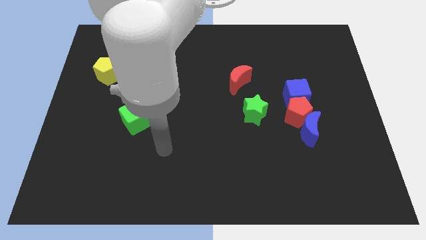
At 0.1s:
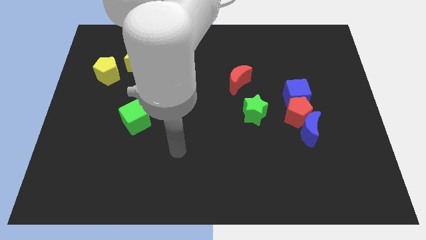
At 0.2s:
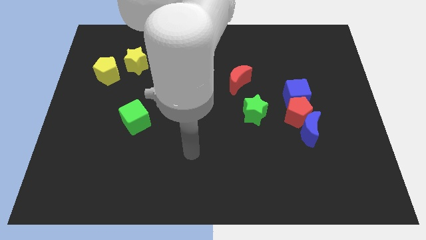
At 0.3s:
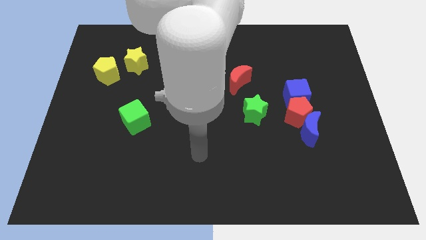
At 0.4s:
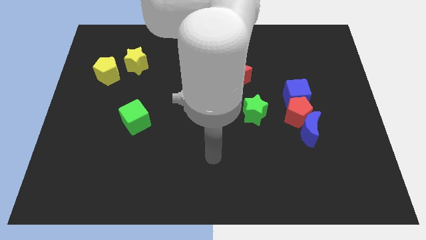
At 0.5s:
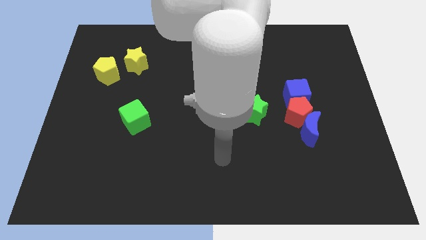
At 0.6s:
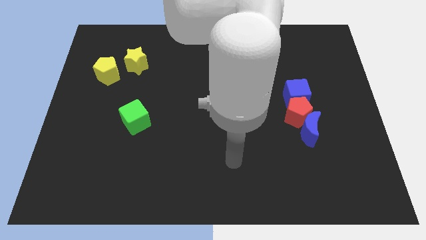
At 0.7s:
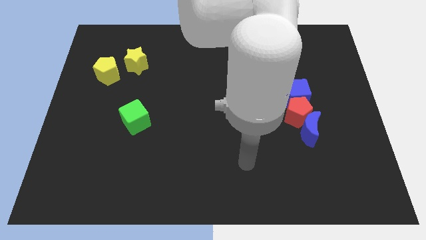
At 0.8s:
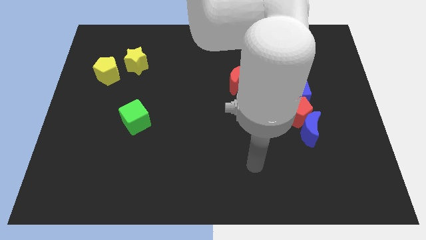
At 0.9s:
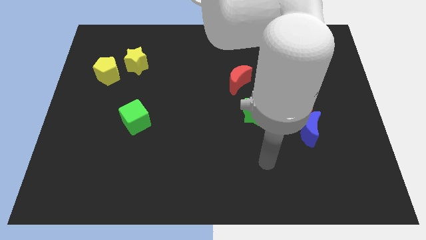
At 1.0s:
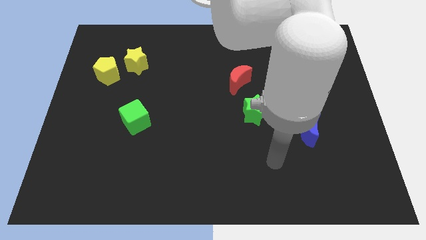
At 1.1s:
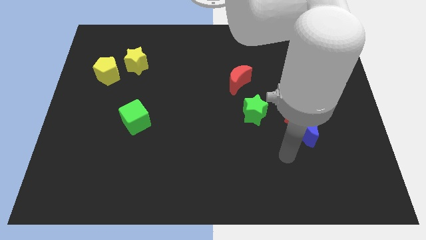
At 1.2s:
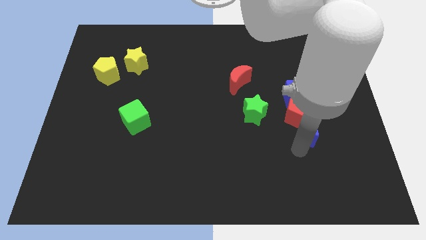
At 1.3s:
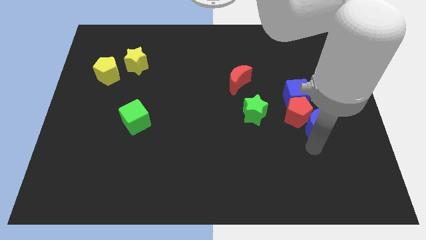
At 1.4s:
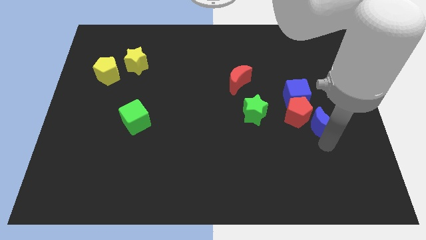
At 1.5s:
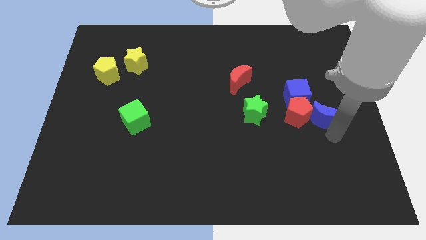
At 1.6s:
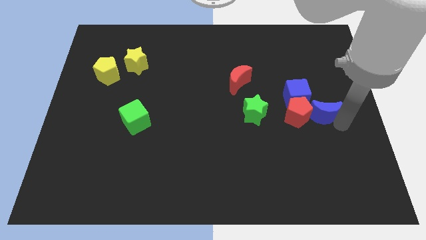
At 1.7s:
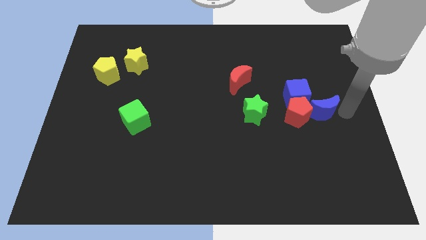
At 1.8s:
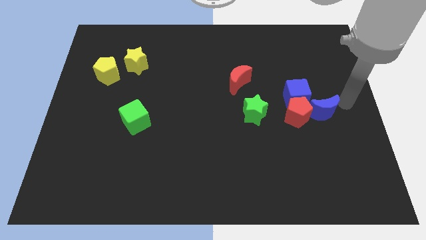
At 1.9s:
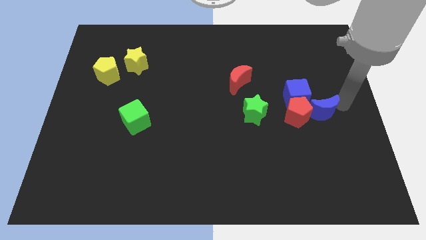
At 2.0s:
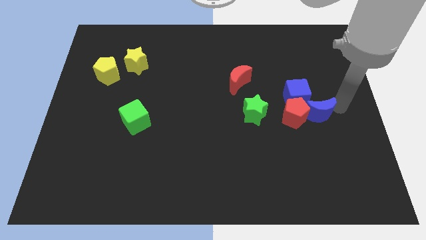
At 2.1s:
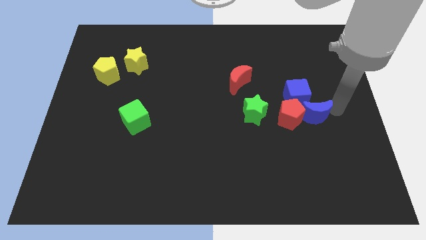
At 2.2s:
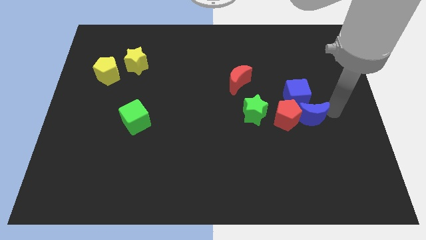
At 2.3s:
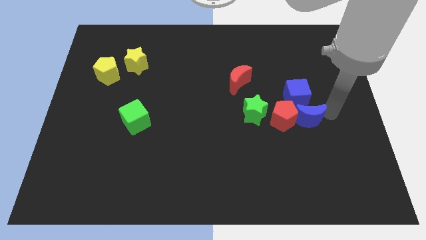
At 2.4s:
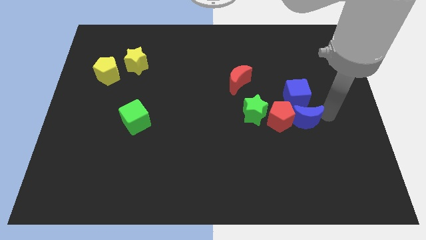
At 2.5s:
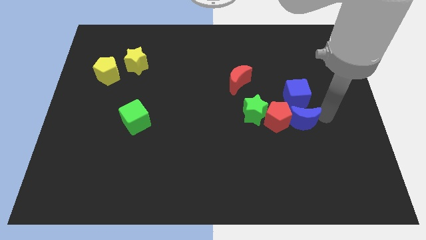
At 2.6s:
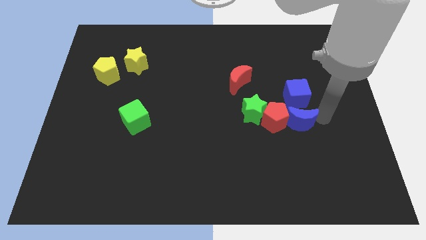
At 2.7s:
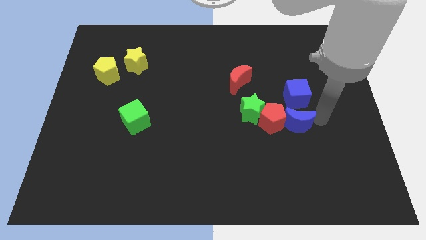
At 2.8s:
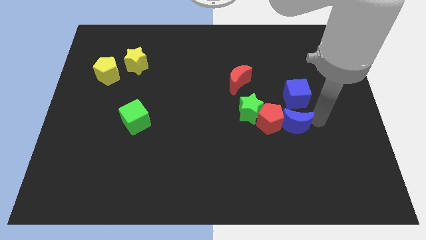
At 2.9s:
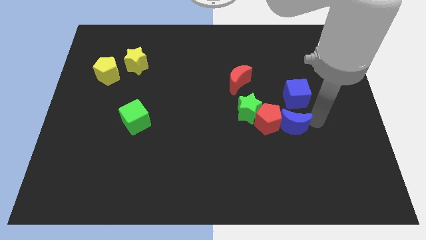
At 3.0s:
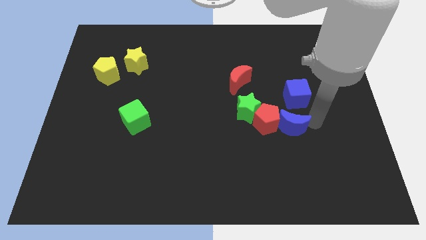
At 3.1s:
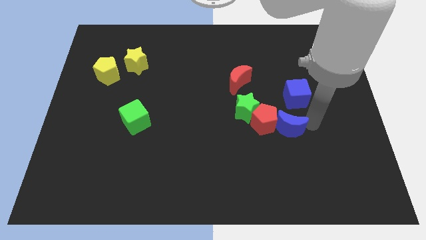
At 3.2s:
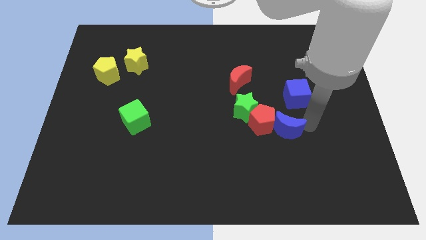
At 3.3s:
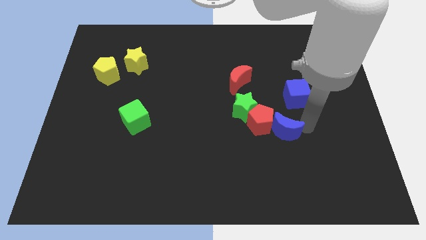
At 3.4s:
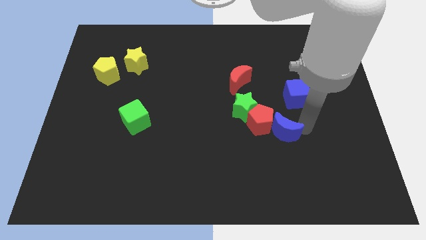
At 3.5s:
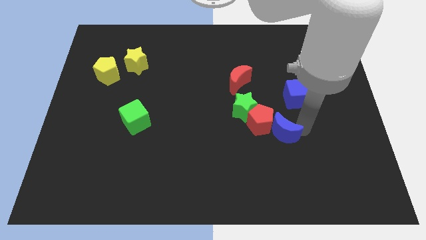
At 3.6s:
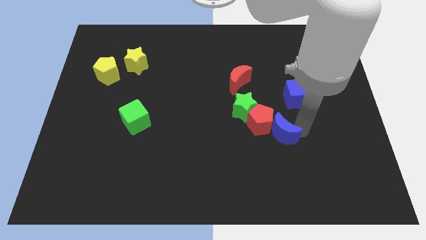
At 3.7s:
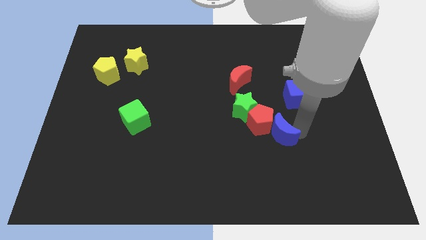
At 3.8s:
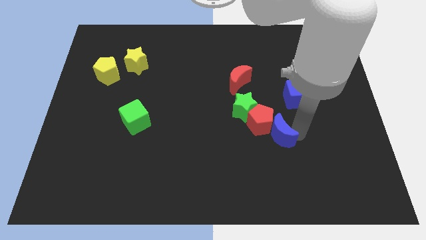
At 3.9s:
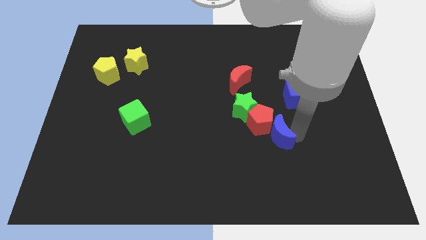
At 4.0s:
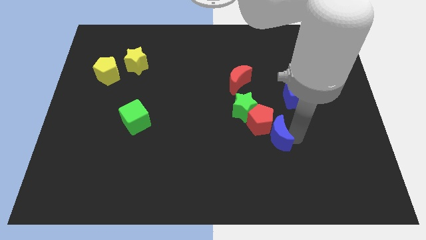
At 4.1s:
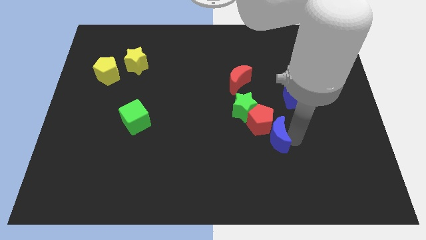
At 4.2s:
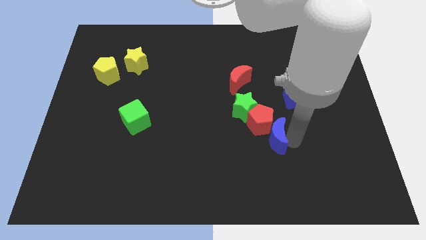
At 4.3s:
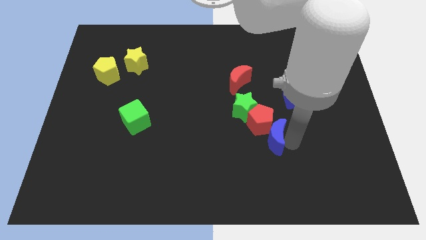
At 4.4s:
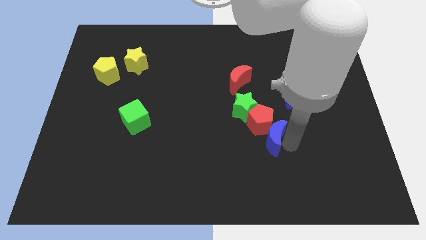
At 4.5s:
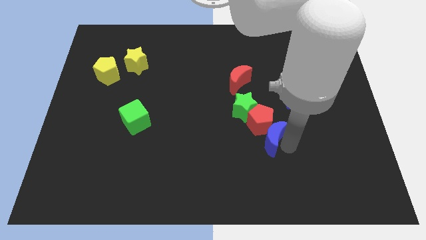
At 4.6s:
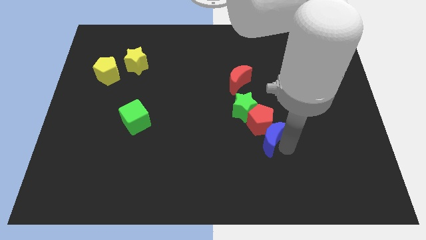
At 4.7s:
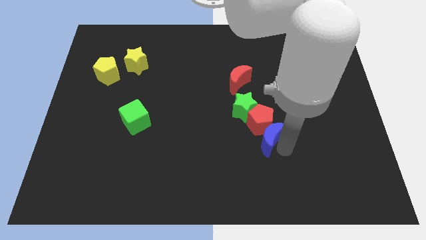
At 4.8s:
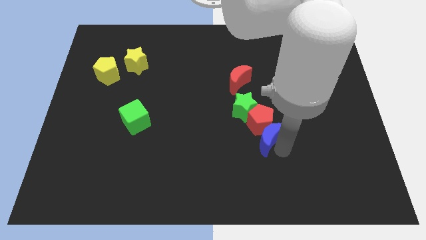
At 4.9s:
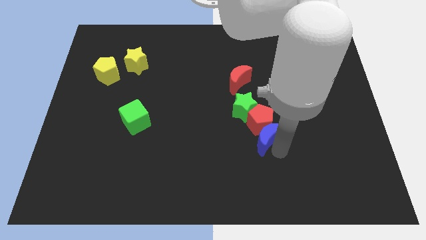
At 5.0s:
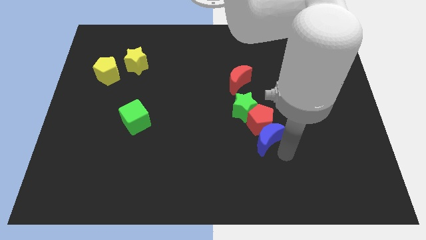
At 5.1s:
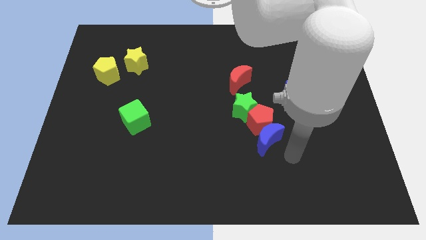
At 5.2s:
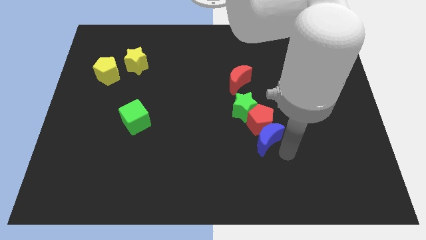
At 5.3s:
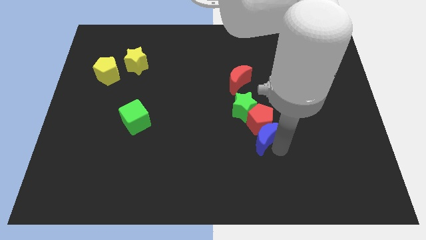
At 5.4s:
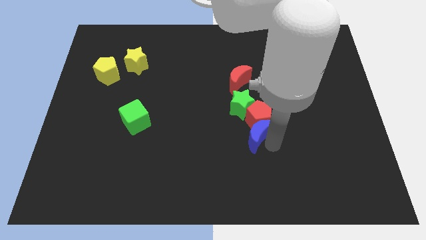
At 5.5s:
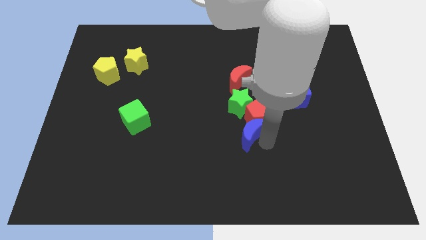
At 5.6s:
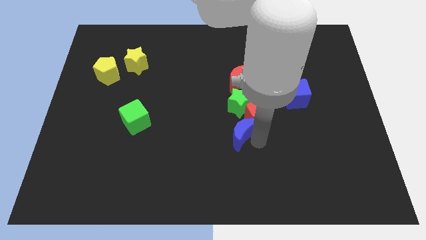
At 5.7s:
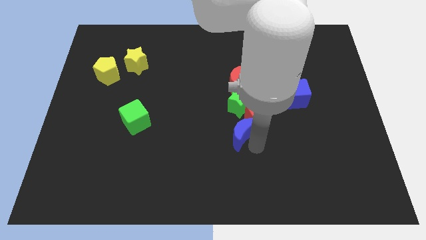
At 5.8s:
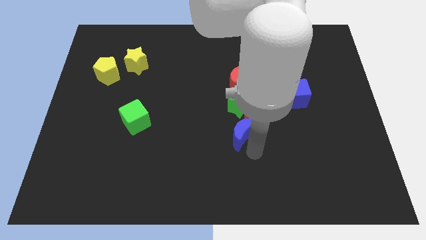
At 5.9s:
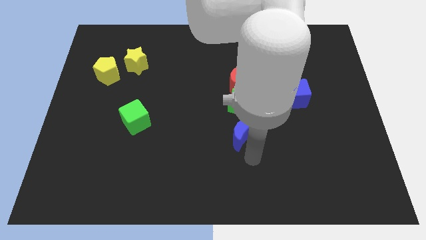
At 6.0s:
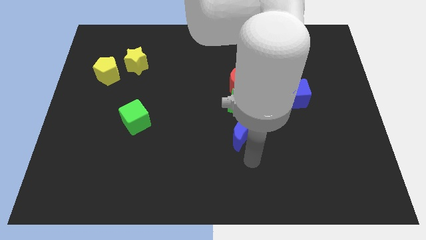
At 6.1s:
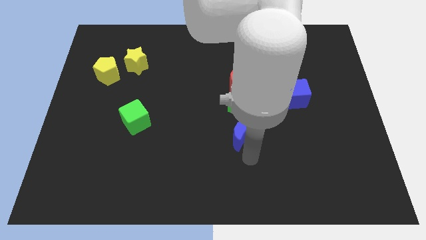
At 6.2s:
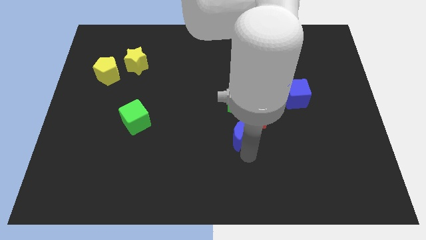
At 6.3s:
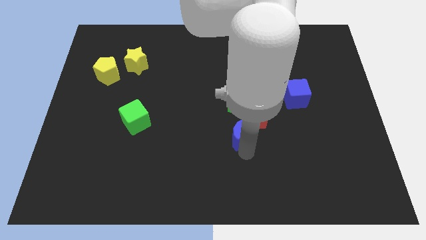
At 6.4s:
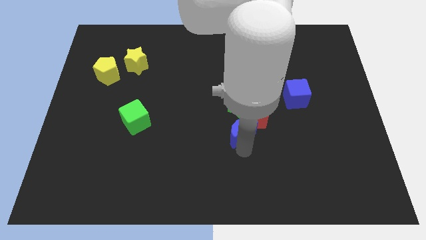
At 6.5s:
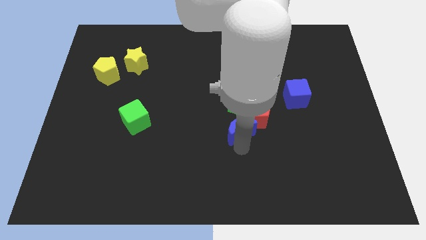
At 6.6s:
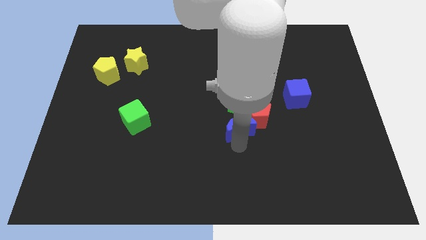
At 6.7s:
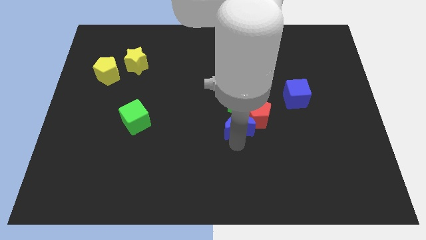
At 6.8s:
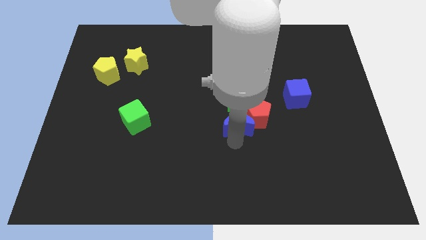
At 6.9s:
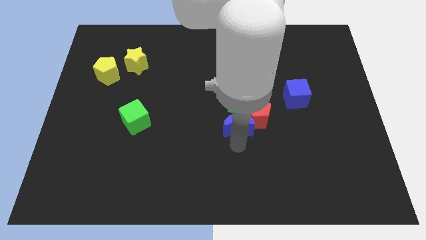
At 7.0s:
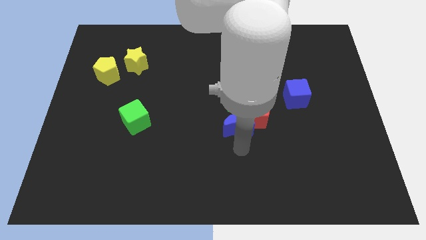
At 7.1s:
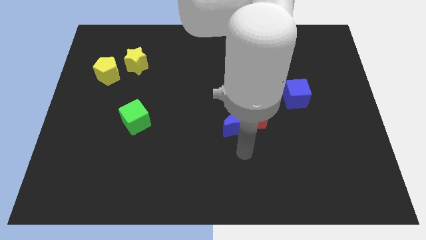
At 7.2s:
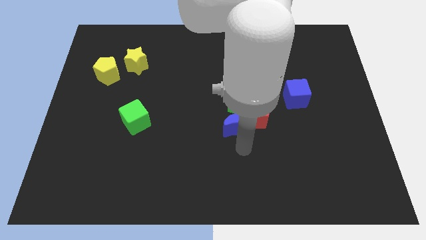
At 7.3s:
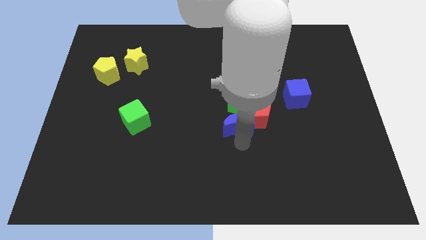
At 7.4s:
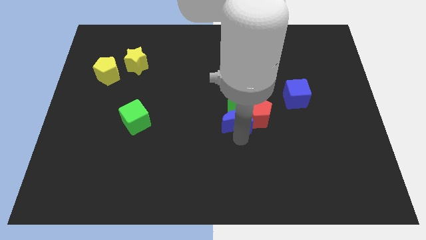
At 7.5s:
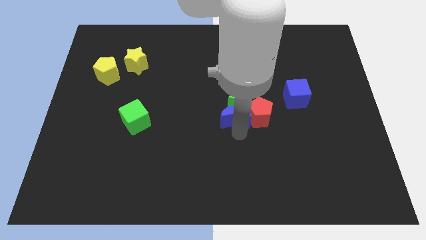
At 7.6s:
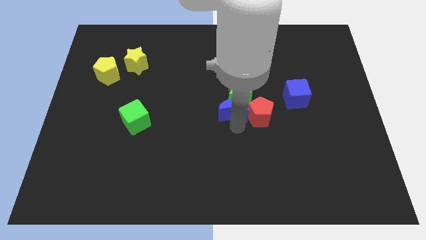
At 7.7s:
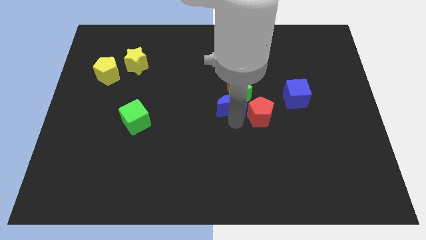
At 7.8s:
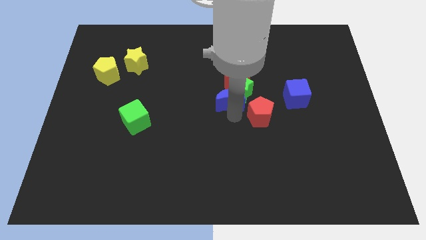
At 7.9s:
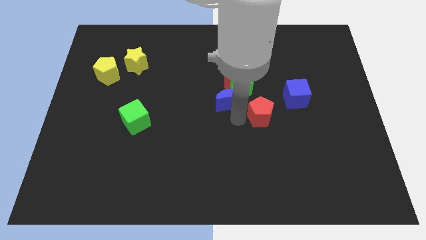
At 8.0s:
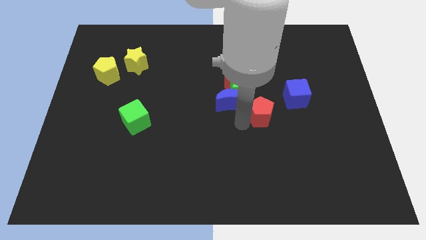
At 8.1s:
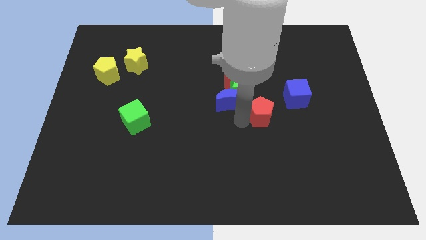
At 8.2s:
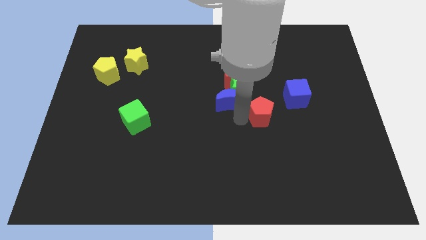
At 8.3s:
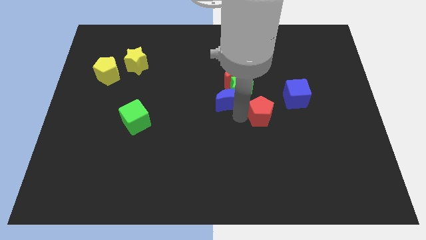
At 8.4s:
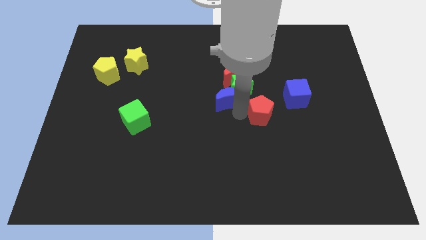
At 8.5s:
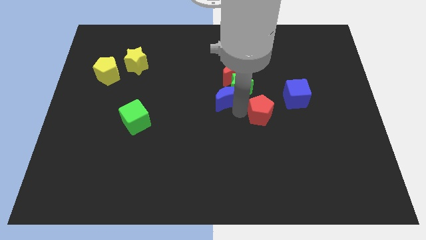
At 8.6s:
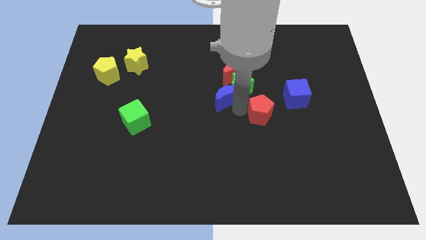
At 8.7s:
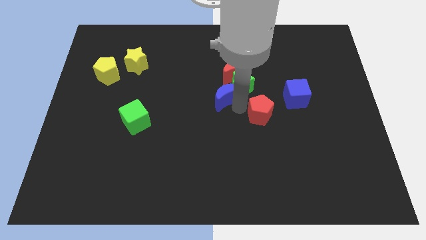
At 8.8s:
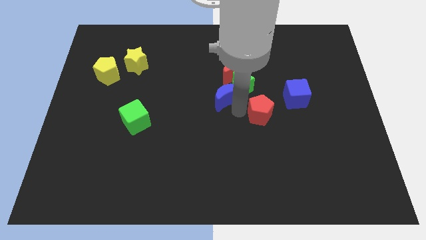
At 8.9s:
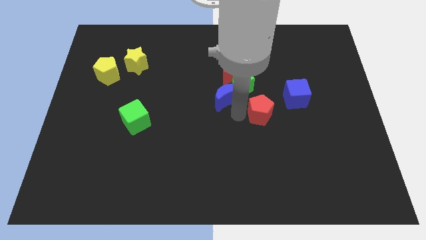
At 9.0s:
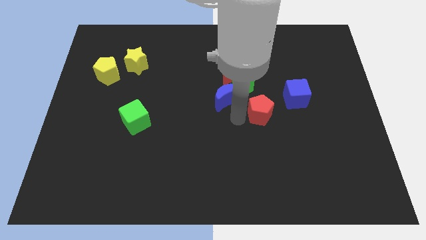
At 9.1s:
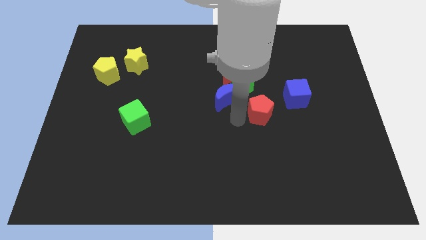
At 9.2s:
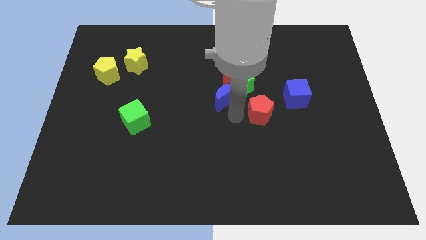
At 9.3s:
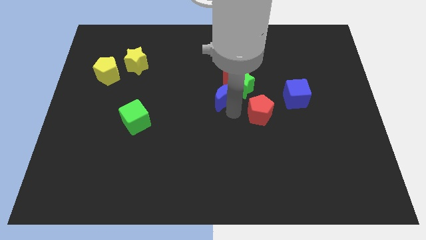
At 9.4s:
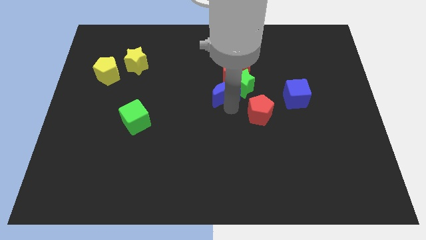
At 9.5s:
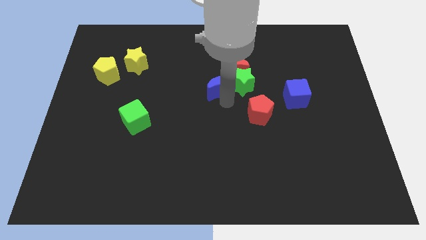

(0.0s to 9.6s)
move the blue moon up and left diagonally
